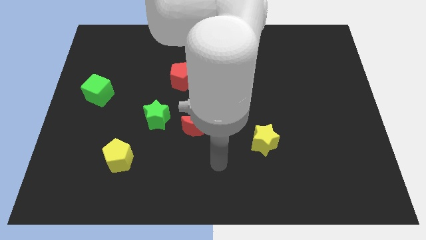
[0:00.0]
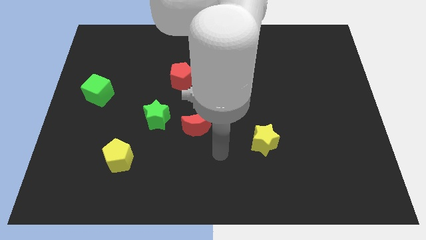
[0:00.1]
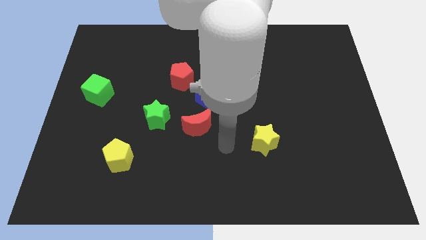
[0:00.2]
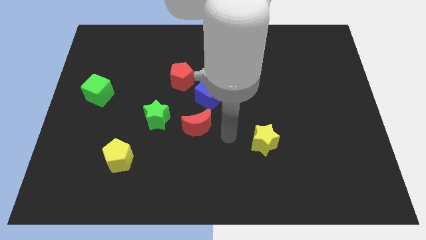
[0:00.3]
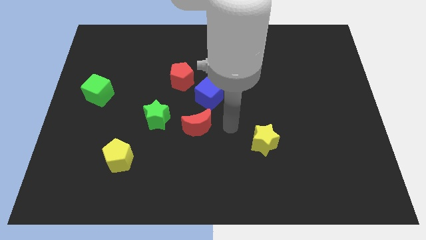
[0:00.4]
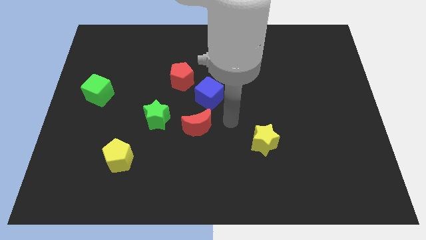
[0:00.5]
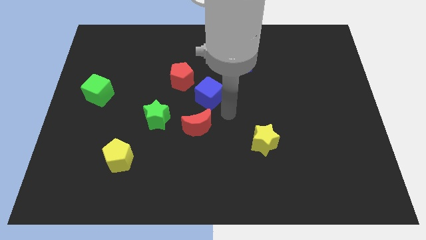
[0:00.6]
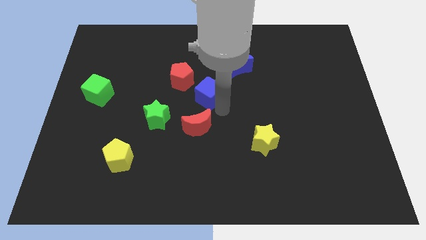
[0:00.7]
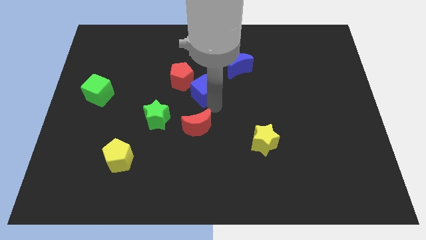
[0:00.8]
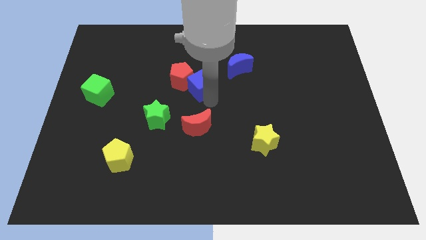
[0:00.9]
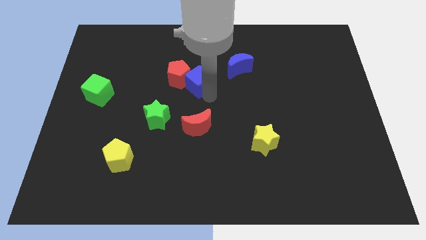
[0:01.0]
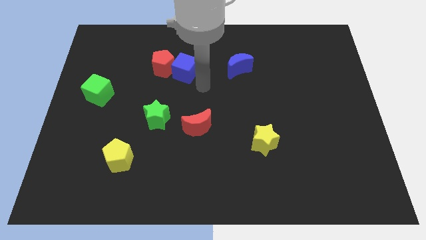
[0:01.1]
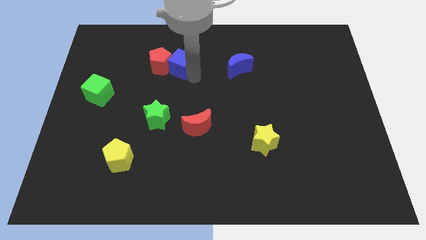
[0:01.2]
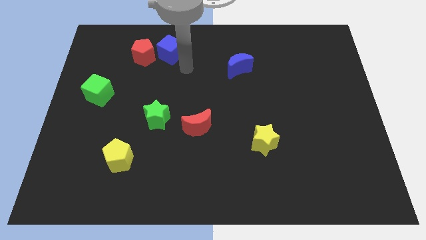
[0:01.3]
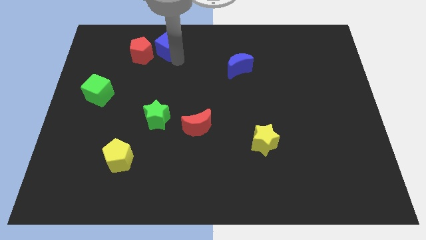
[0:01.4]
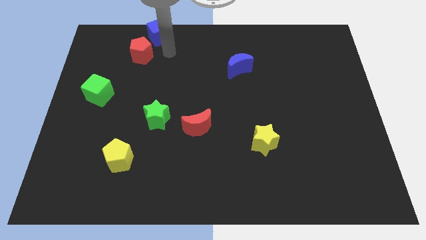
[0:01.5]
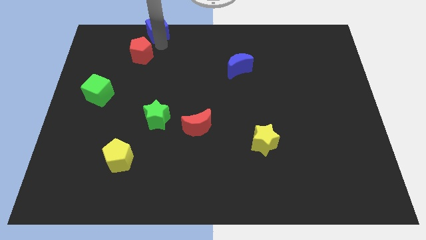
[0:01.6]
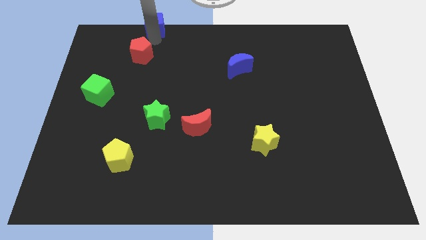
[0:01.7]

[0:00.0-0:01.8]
move the red pentagon away from the blue cube

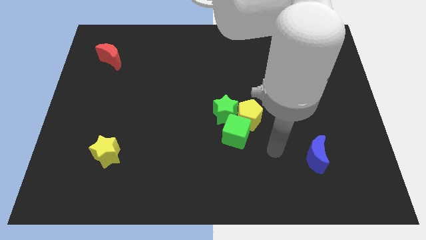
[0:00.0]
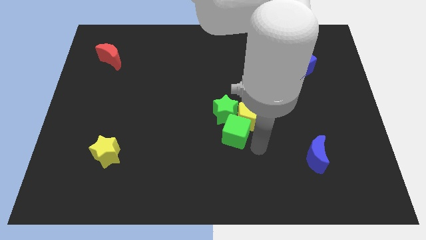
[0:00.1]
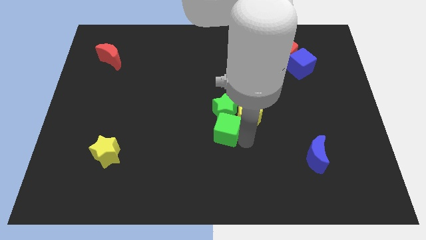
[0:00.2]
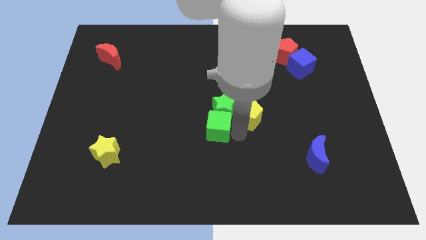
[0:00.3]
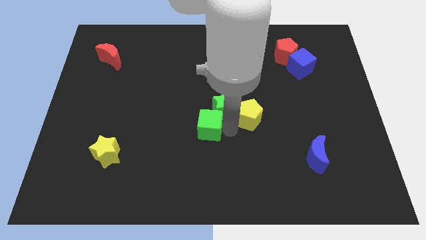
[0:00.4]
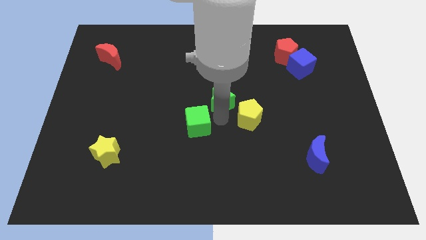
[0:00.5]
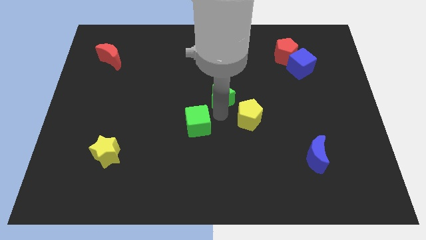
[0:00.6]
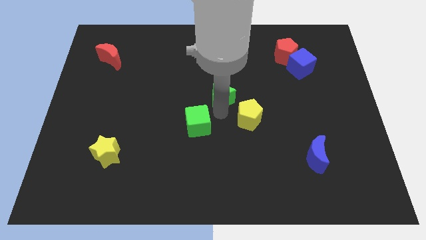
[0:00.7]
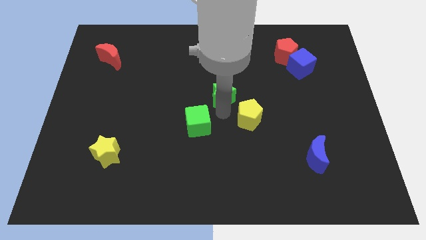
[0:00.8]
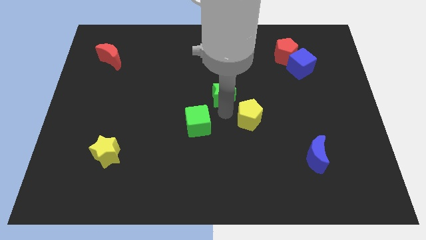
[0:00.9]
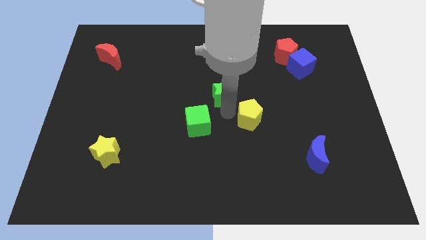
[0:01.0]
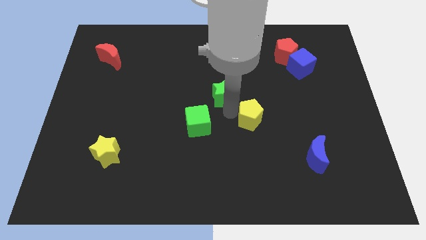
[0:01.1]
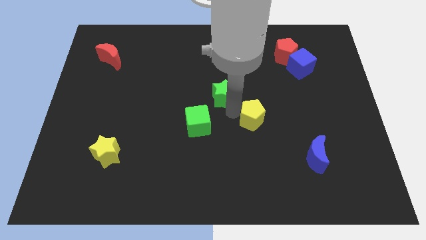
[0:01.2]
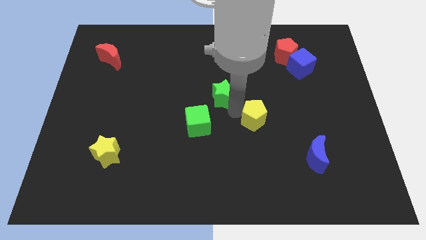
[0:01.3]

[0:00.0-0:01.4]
separate the yellow pentagon from the green cube and green star

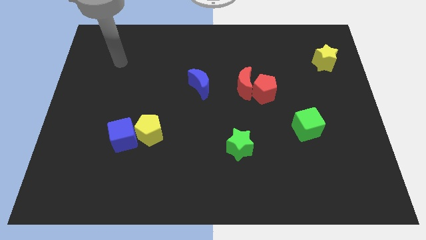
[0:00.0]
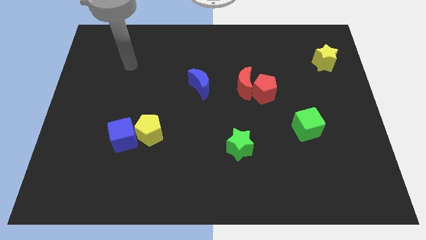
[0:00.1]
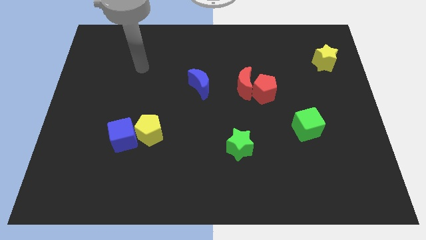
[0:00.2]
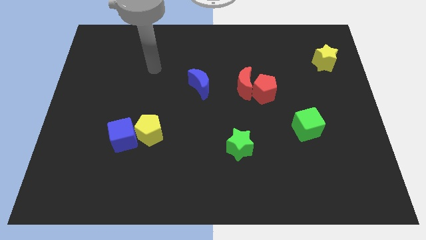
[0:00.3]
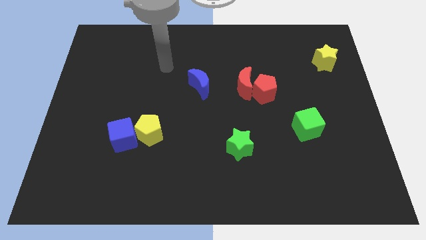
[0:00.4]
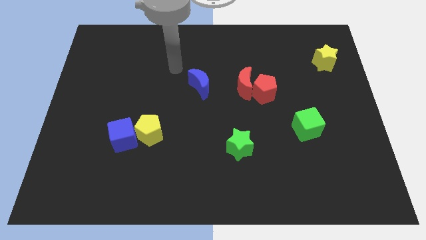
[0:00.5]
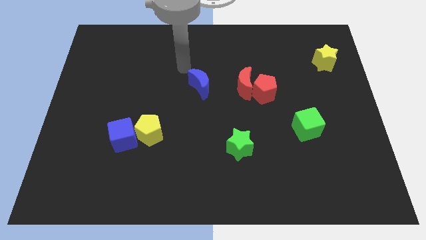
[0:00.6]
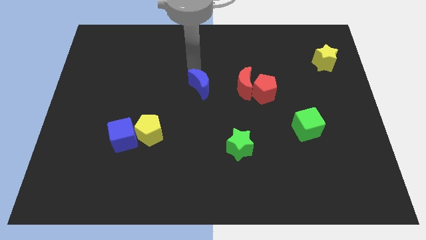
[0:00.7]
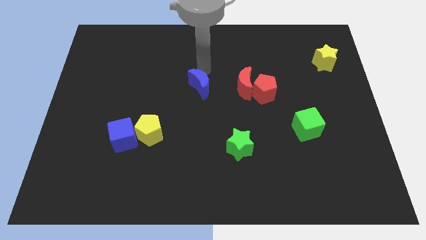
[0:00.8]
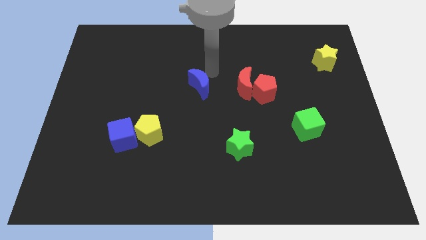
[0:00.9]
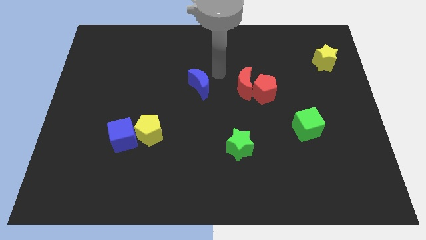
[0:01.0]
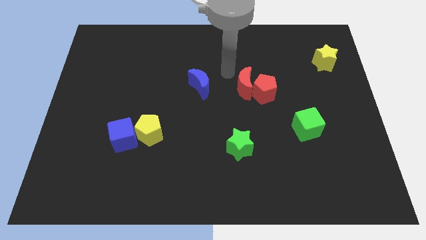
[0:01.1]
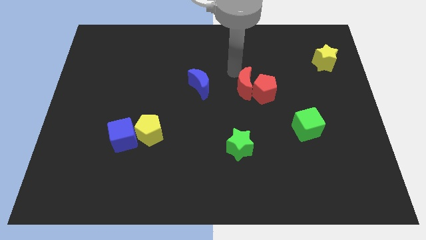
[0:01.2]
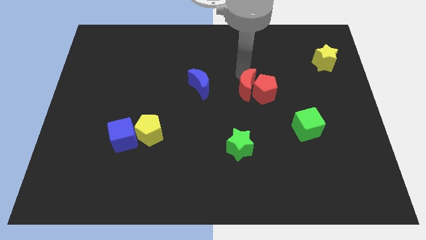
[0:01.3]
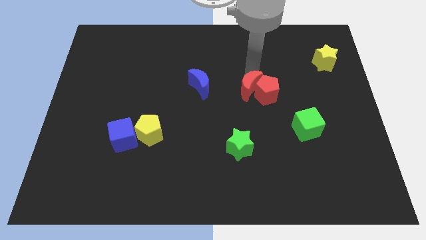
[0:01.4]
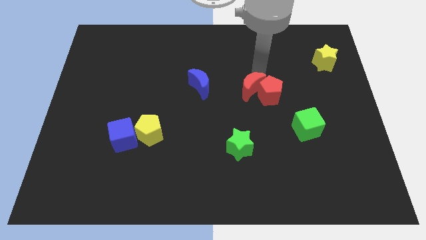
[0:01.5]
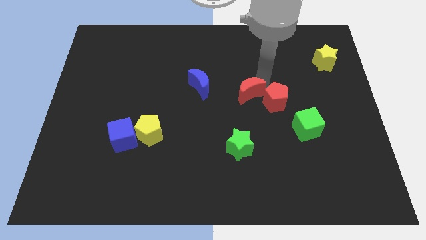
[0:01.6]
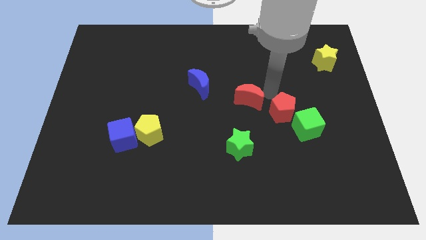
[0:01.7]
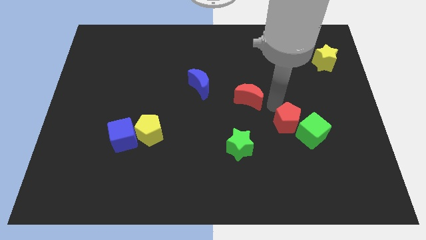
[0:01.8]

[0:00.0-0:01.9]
separate the red moon from the red pentagon

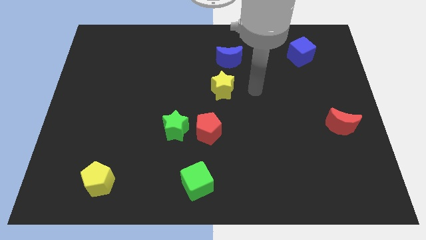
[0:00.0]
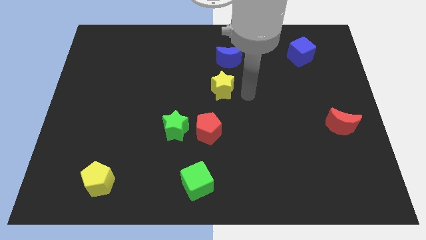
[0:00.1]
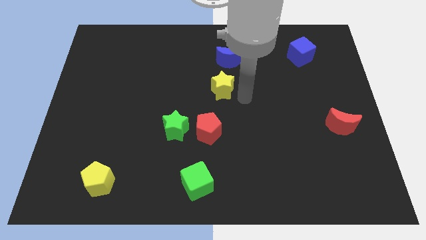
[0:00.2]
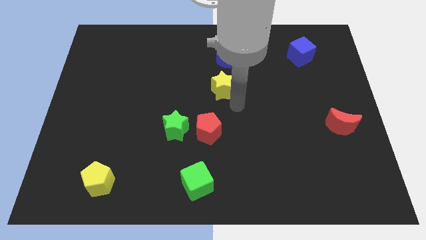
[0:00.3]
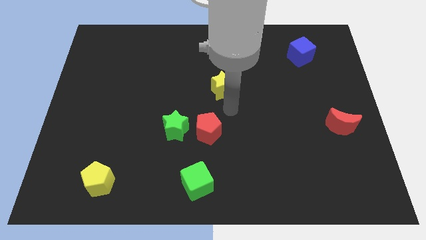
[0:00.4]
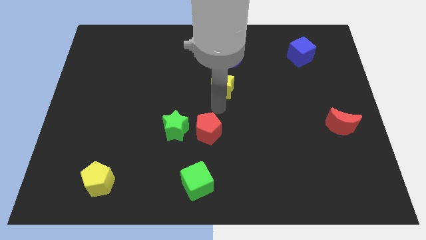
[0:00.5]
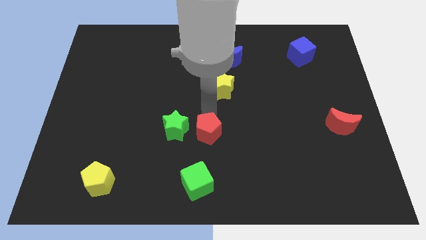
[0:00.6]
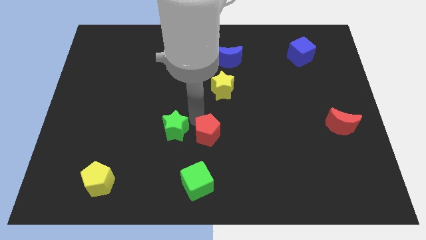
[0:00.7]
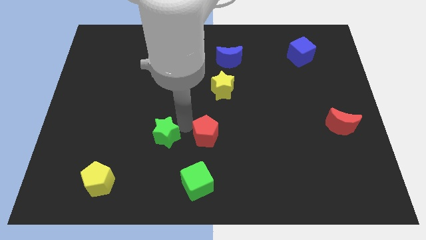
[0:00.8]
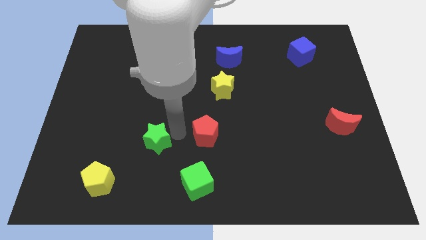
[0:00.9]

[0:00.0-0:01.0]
separate the red pentagon from the green star

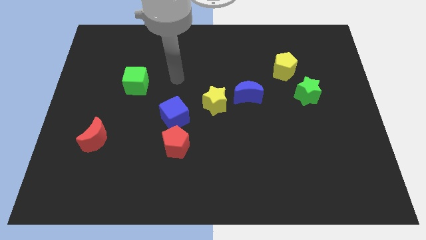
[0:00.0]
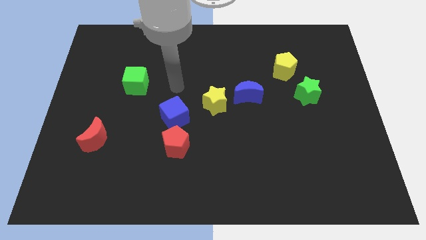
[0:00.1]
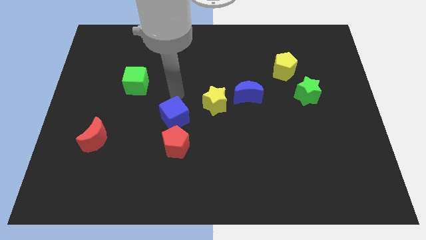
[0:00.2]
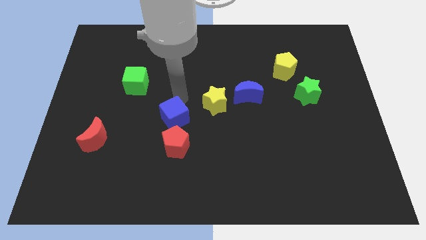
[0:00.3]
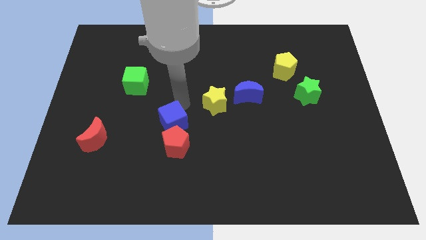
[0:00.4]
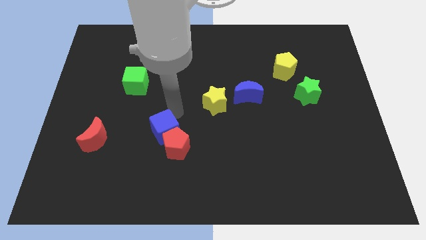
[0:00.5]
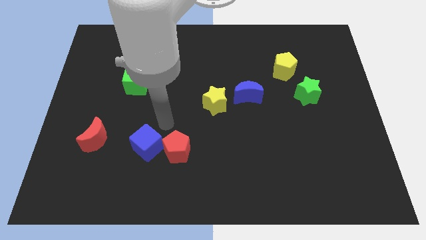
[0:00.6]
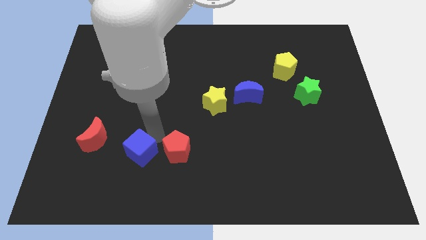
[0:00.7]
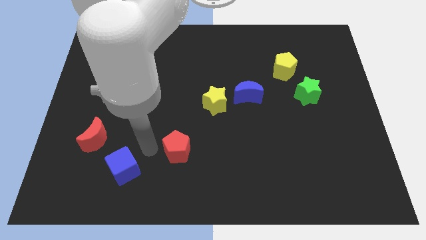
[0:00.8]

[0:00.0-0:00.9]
separate the red pentagon from the blue cube

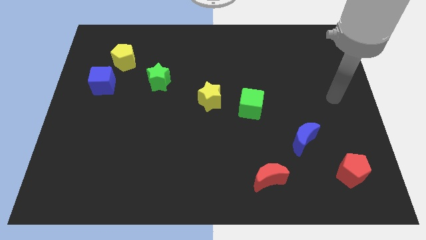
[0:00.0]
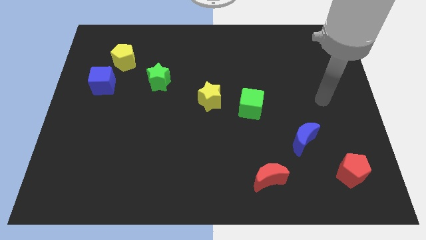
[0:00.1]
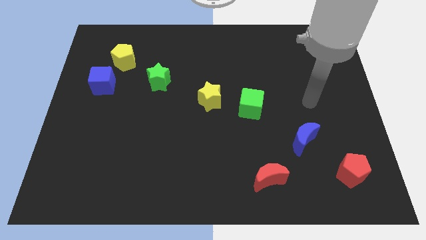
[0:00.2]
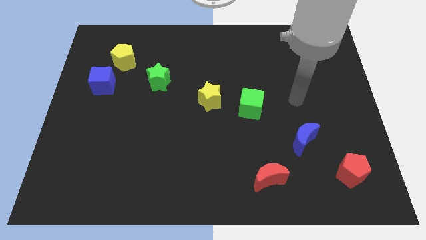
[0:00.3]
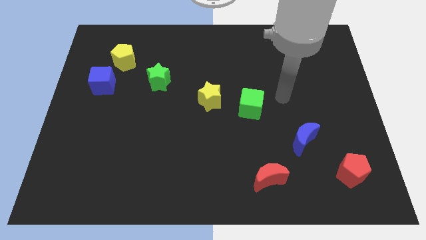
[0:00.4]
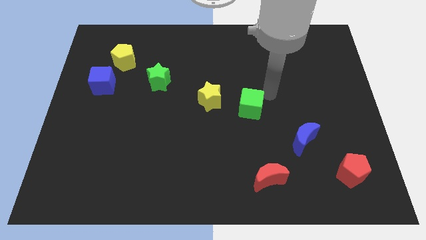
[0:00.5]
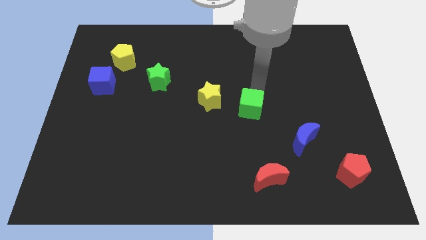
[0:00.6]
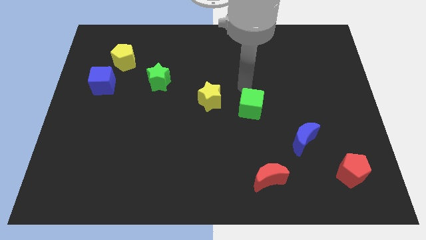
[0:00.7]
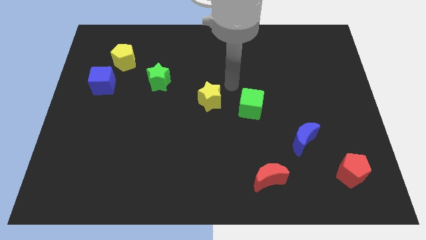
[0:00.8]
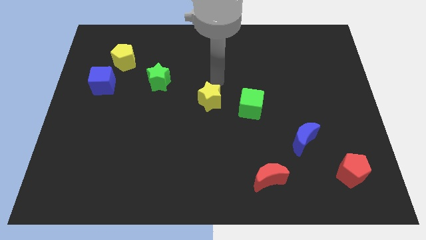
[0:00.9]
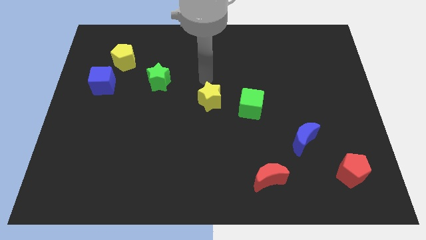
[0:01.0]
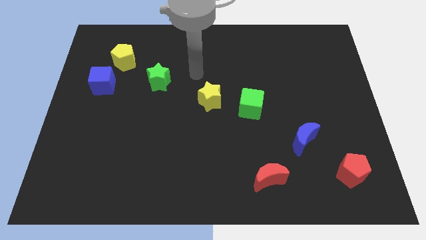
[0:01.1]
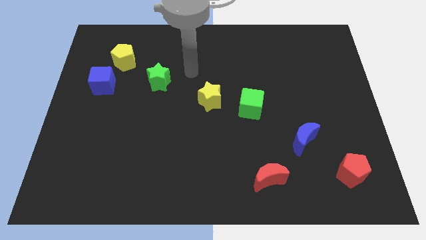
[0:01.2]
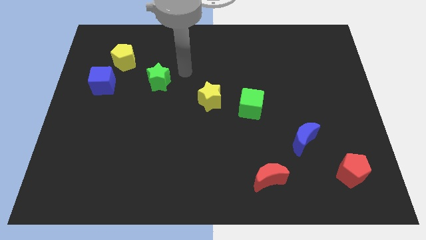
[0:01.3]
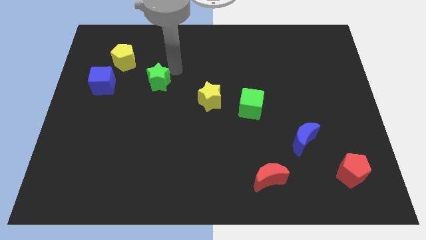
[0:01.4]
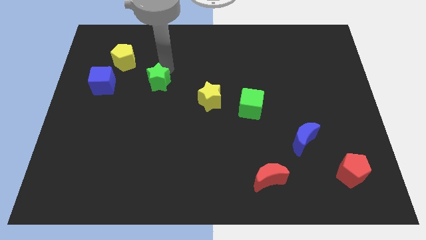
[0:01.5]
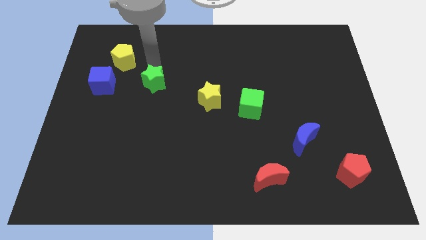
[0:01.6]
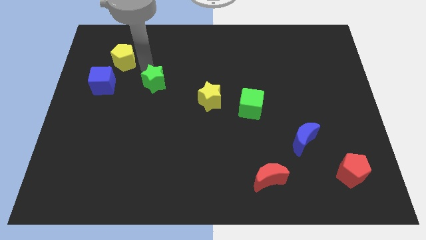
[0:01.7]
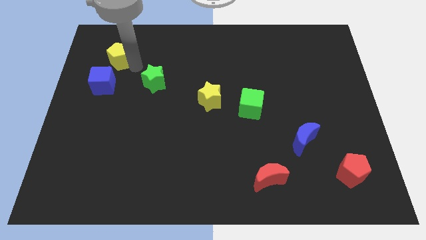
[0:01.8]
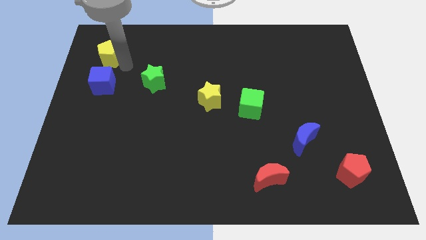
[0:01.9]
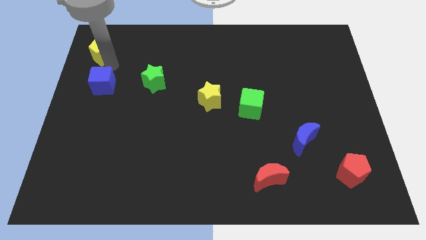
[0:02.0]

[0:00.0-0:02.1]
pull the blue cube apart from the yellow pentagon
